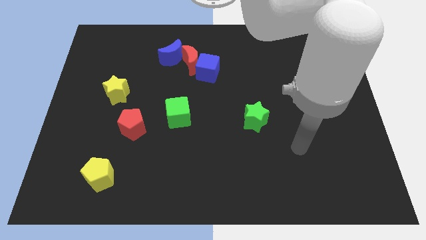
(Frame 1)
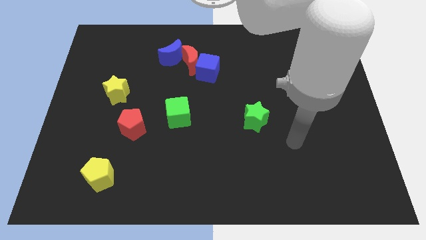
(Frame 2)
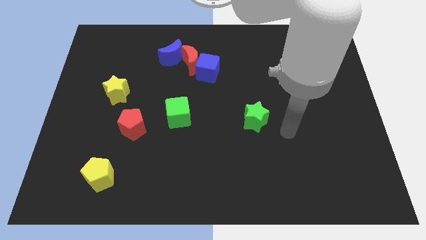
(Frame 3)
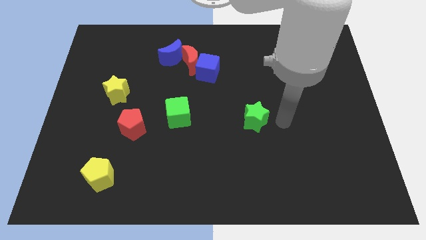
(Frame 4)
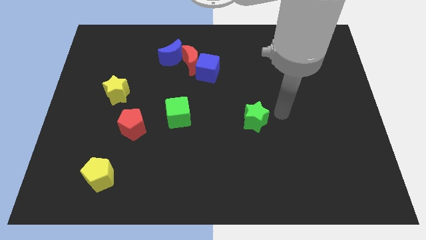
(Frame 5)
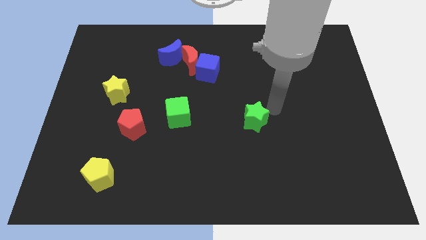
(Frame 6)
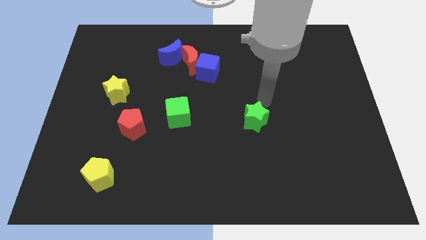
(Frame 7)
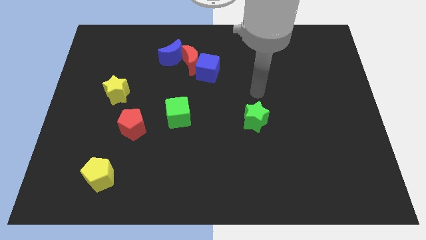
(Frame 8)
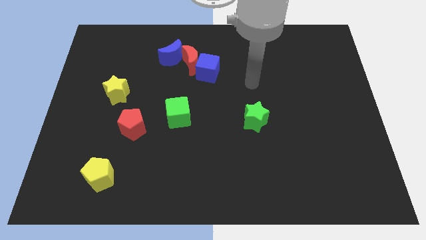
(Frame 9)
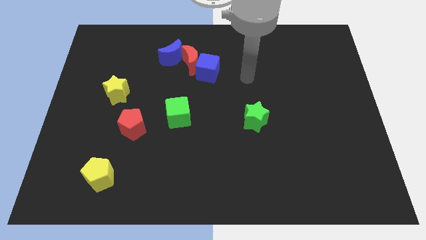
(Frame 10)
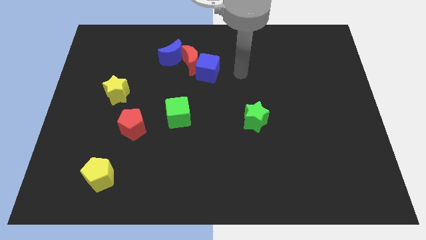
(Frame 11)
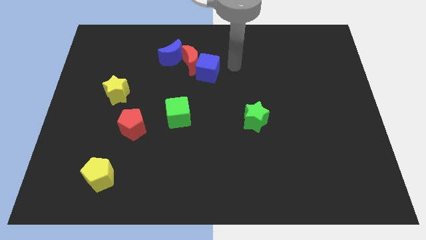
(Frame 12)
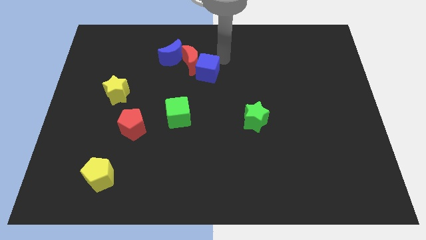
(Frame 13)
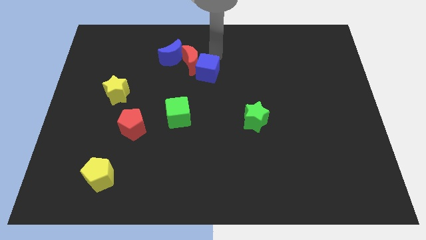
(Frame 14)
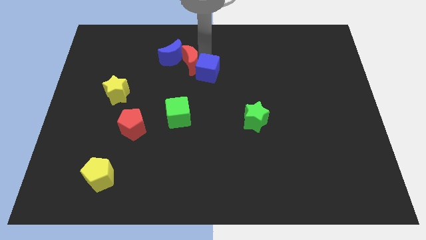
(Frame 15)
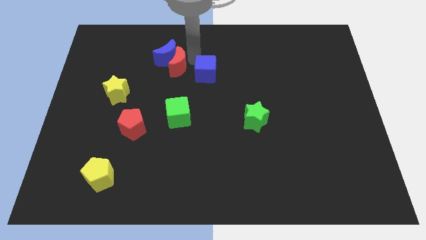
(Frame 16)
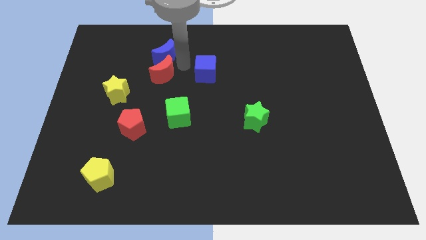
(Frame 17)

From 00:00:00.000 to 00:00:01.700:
move the blue cube away from the red moon

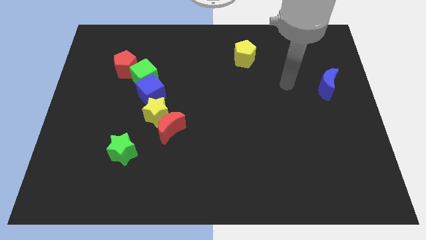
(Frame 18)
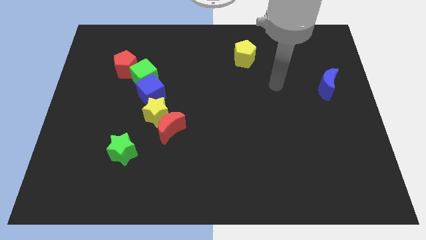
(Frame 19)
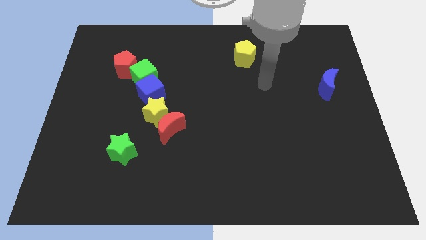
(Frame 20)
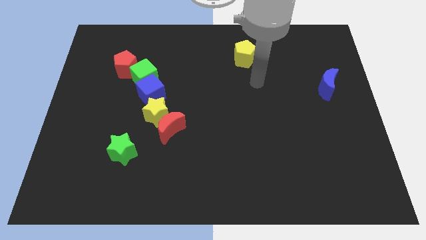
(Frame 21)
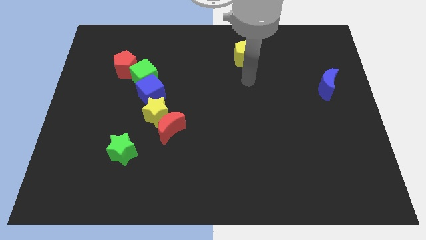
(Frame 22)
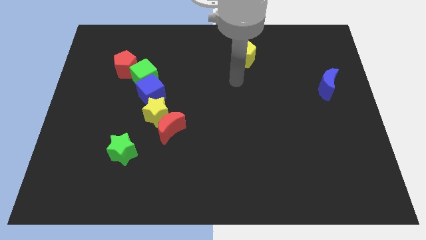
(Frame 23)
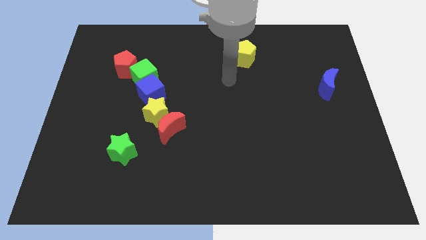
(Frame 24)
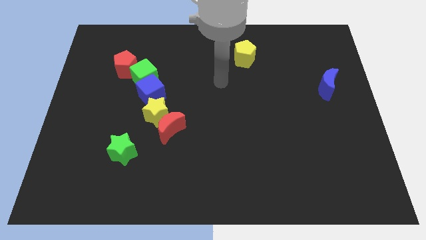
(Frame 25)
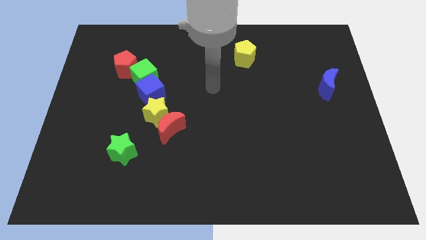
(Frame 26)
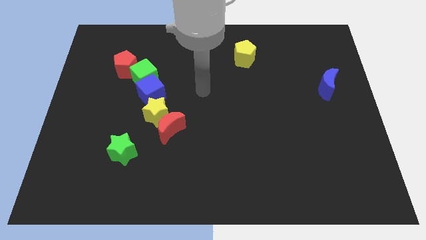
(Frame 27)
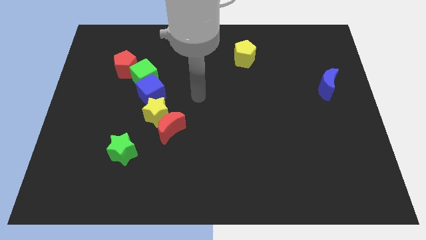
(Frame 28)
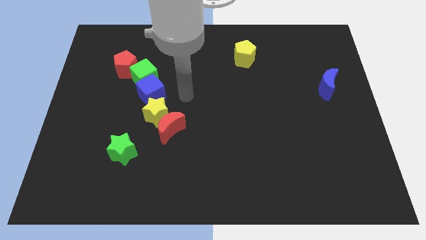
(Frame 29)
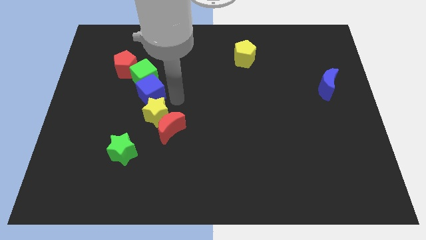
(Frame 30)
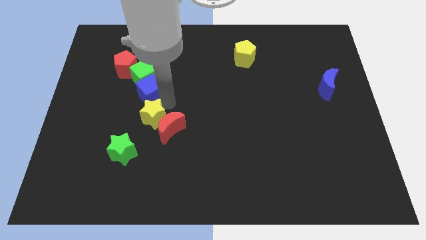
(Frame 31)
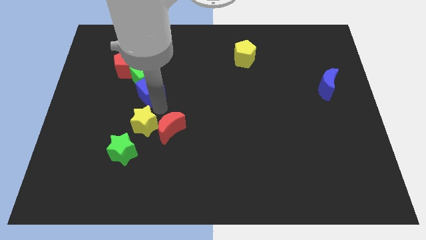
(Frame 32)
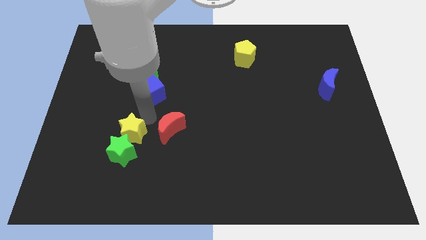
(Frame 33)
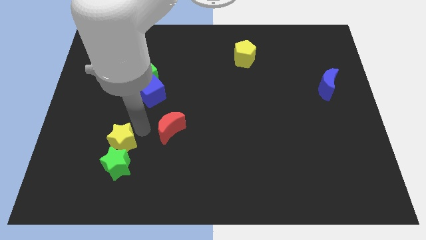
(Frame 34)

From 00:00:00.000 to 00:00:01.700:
move the red moon away from the yellow star

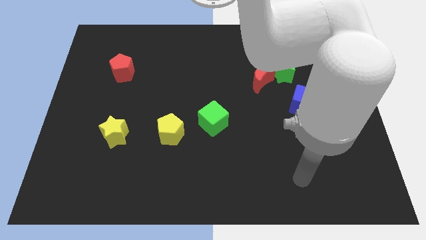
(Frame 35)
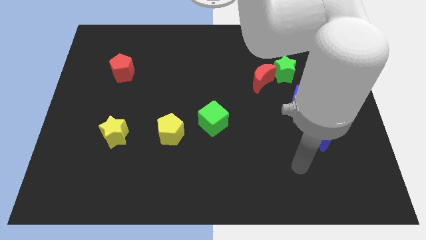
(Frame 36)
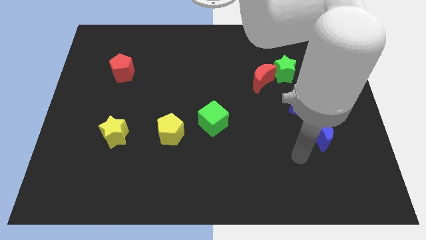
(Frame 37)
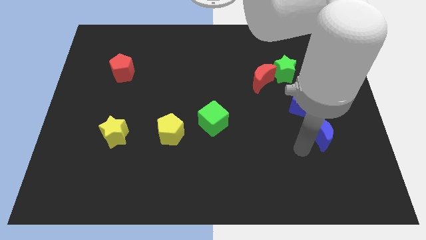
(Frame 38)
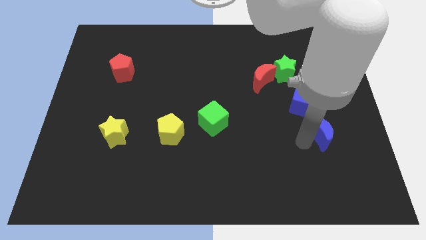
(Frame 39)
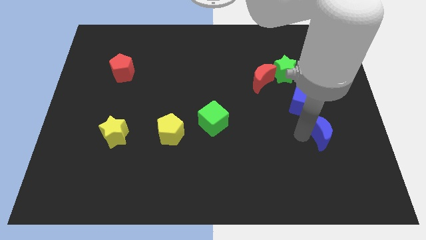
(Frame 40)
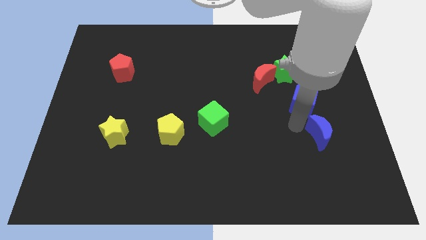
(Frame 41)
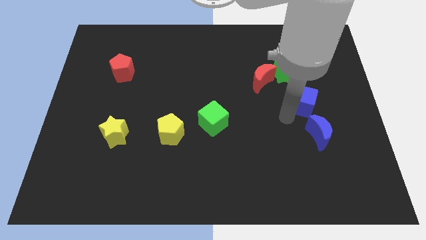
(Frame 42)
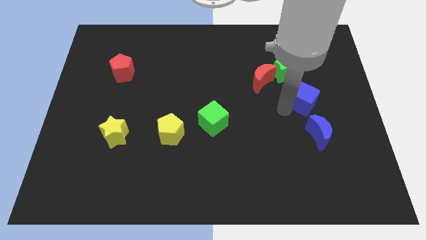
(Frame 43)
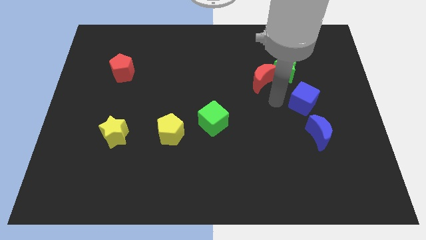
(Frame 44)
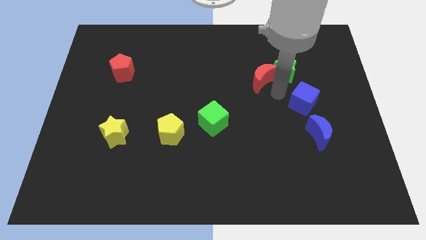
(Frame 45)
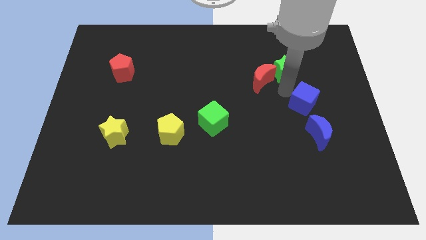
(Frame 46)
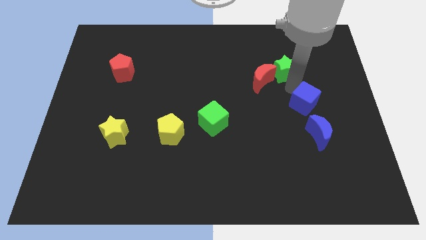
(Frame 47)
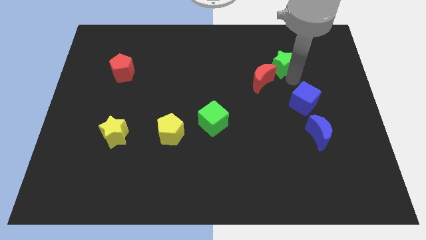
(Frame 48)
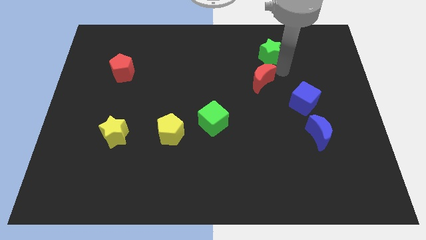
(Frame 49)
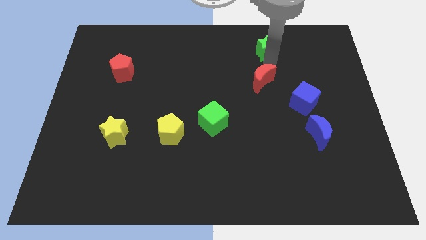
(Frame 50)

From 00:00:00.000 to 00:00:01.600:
move the red moon away from the green star

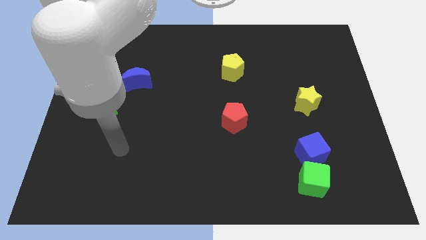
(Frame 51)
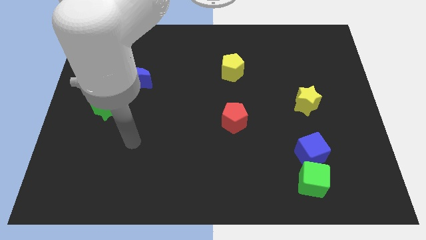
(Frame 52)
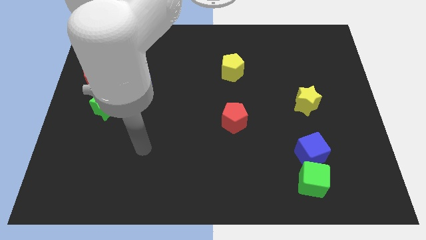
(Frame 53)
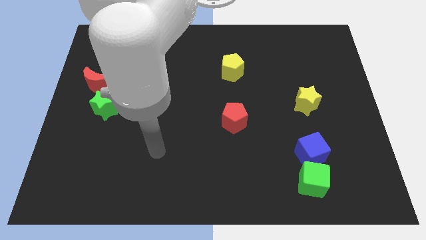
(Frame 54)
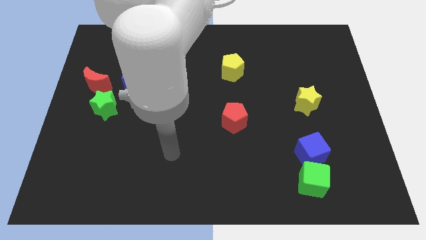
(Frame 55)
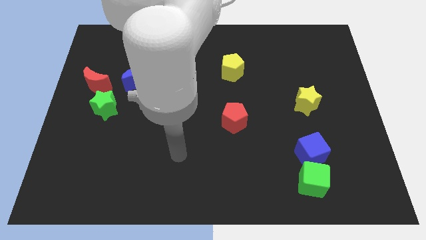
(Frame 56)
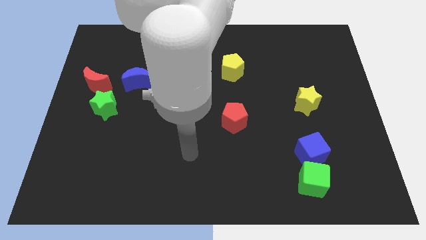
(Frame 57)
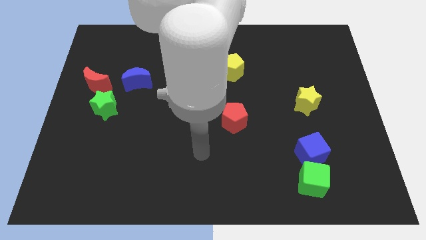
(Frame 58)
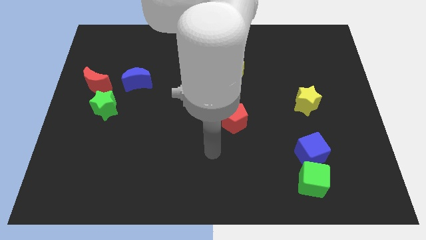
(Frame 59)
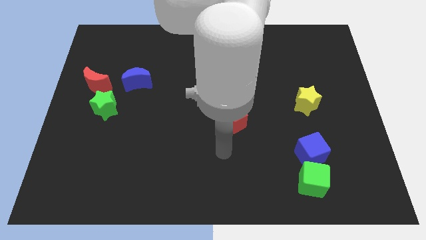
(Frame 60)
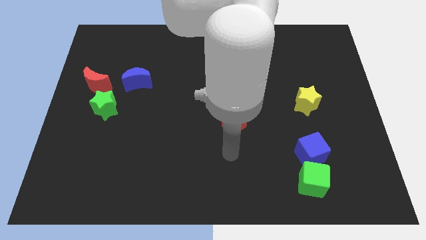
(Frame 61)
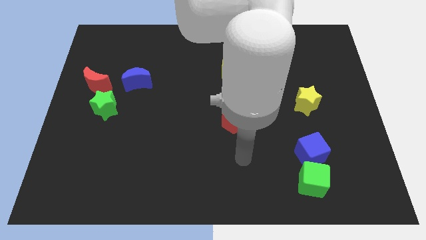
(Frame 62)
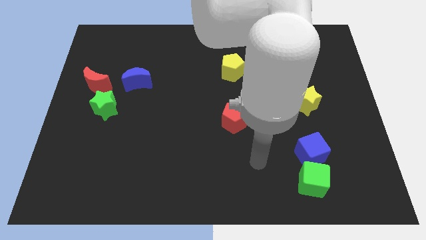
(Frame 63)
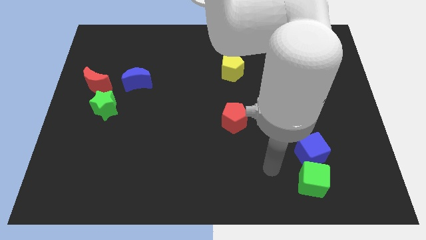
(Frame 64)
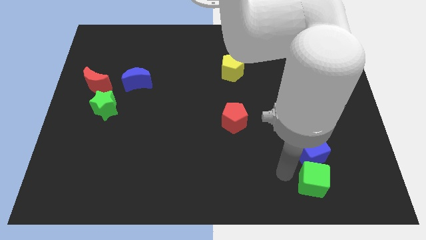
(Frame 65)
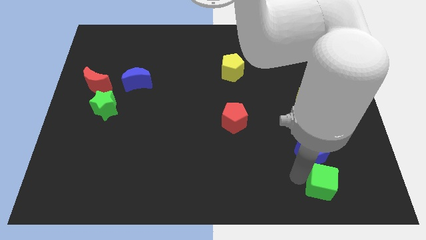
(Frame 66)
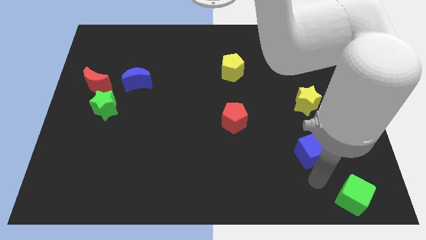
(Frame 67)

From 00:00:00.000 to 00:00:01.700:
pull the blue cube apart from the green cube

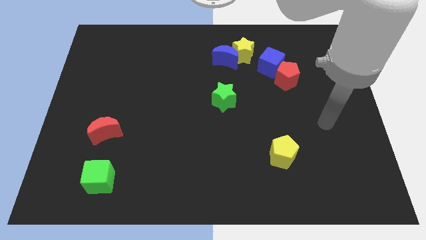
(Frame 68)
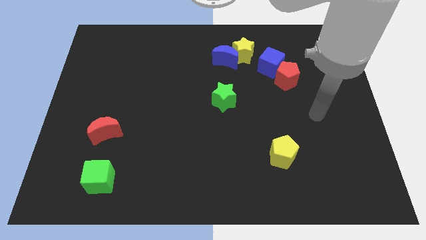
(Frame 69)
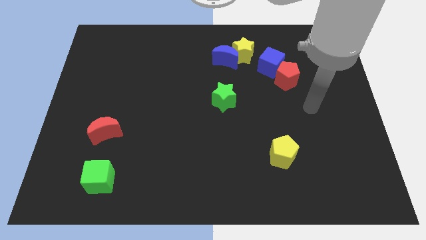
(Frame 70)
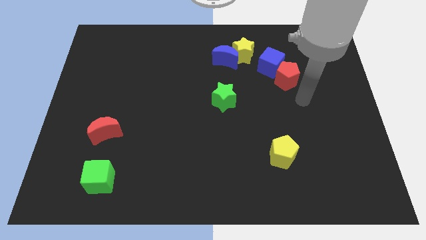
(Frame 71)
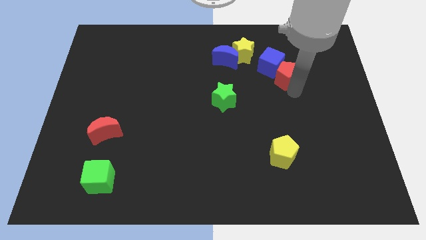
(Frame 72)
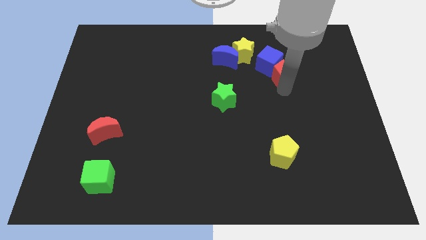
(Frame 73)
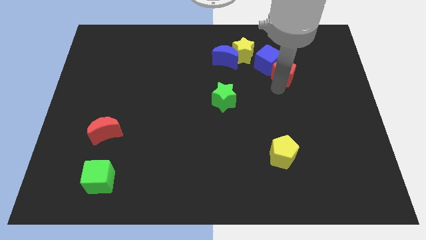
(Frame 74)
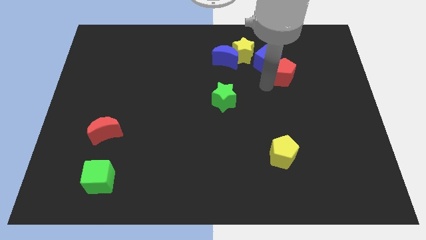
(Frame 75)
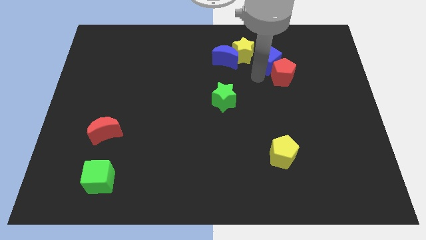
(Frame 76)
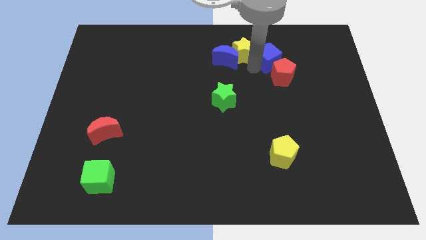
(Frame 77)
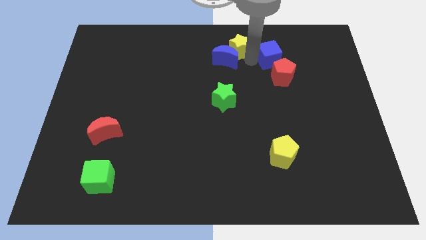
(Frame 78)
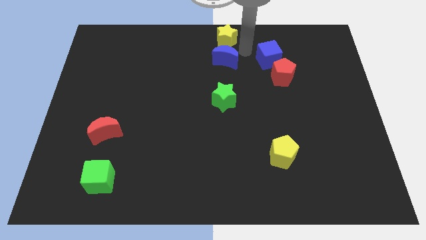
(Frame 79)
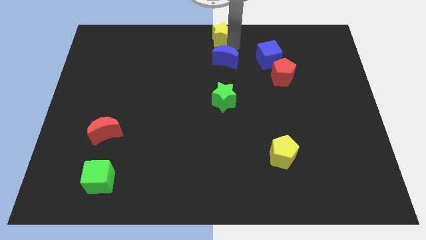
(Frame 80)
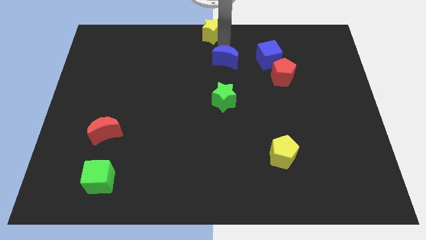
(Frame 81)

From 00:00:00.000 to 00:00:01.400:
pull the blue moon apart from the yellow star

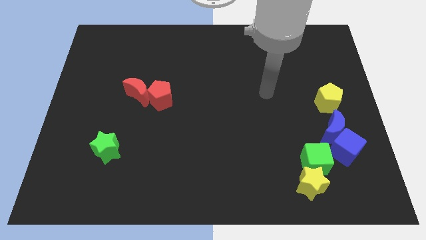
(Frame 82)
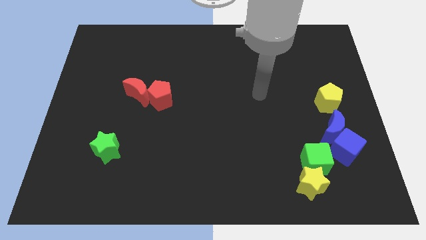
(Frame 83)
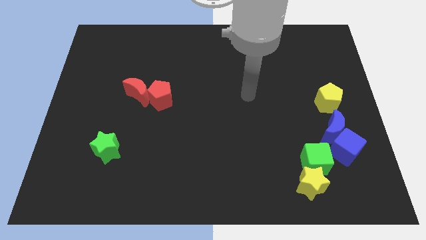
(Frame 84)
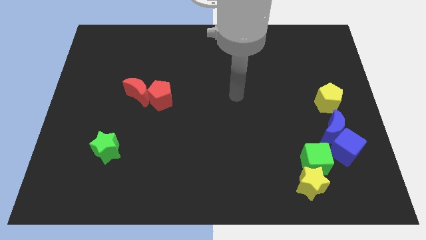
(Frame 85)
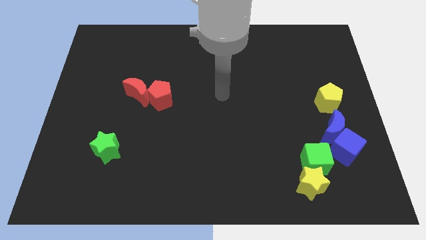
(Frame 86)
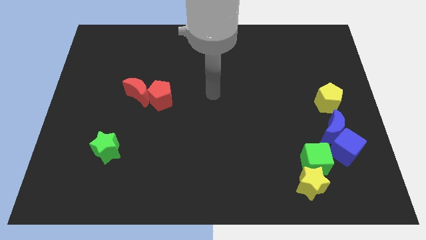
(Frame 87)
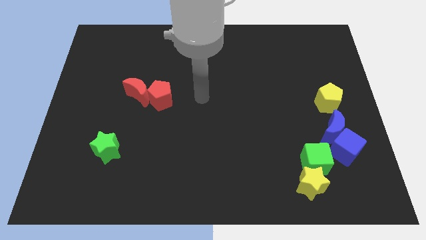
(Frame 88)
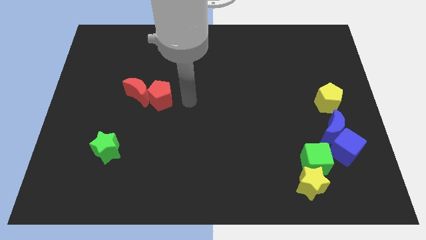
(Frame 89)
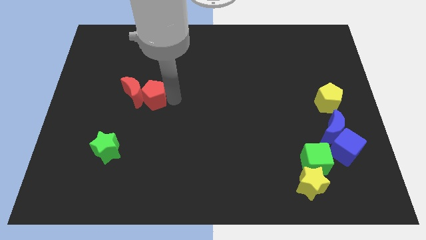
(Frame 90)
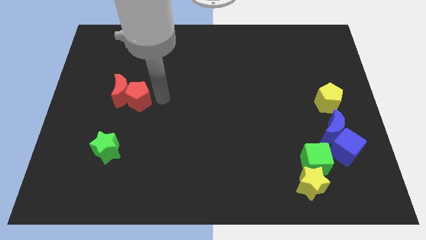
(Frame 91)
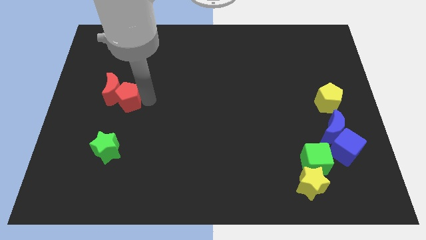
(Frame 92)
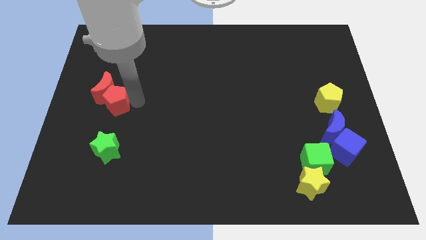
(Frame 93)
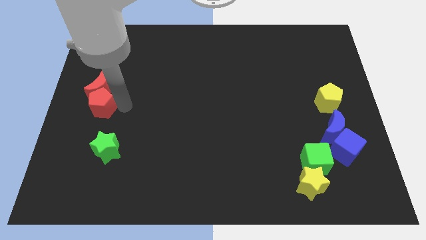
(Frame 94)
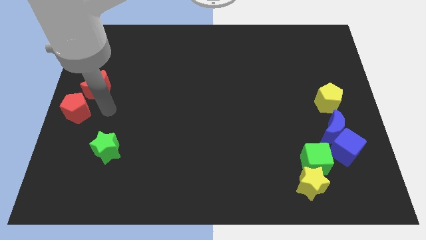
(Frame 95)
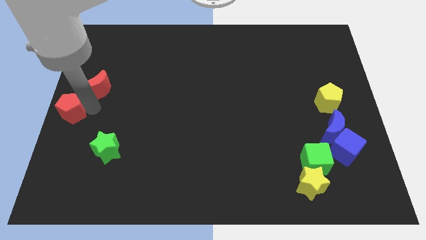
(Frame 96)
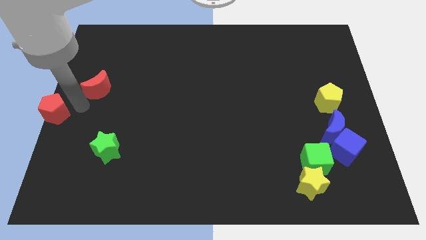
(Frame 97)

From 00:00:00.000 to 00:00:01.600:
pull the red moon apart from the red pentagon
